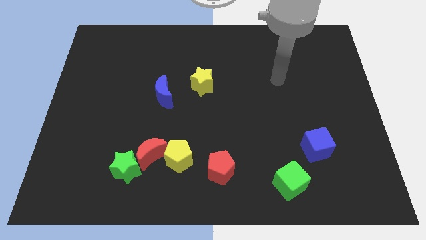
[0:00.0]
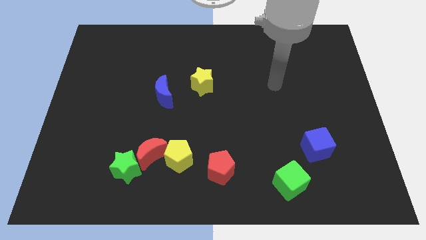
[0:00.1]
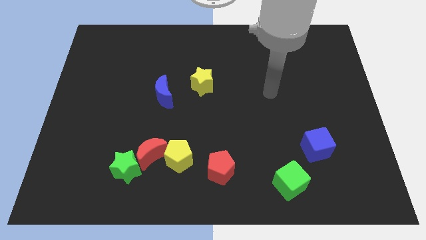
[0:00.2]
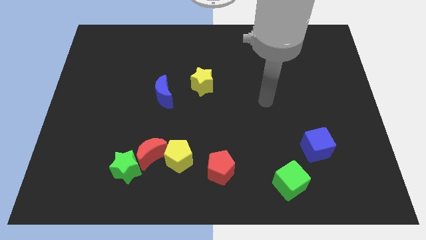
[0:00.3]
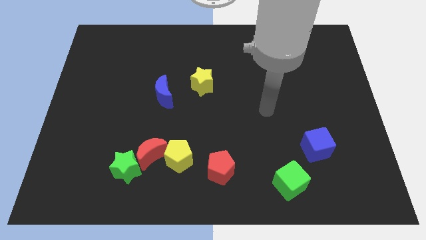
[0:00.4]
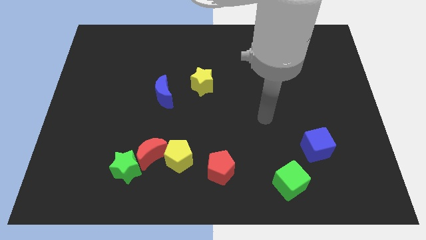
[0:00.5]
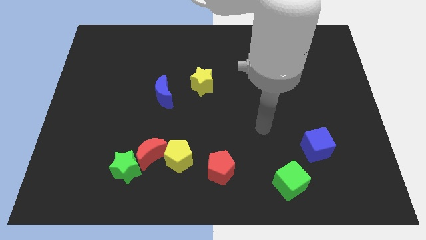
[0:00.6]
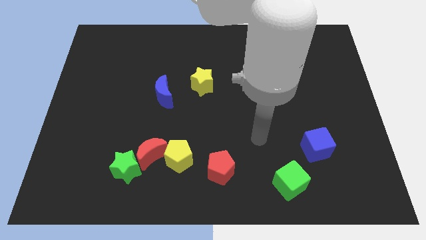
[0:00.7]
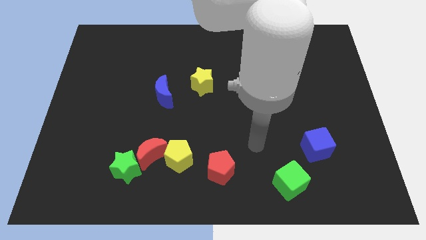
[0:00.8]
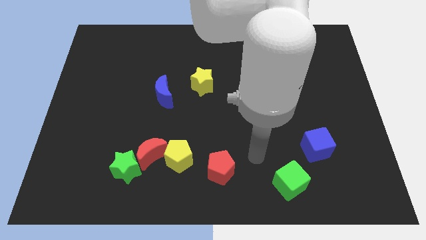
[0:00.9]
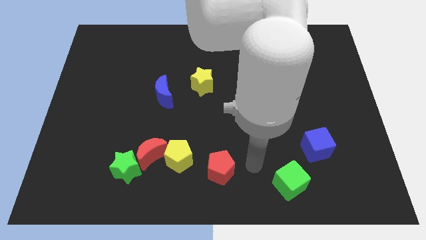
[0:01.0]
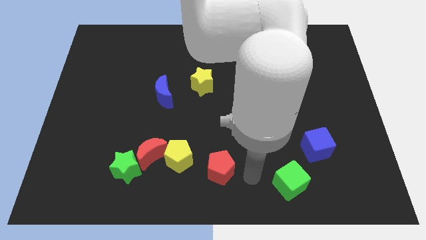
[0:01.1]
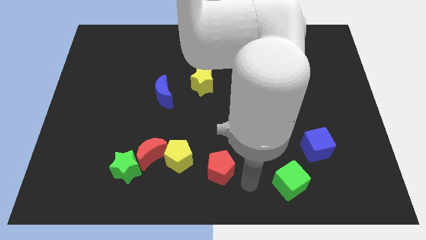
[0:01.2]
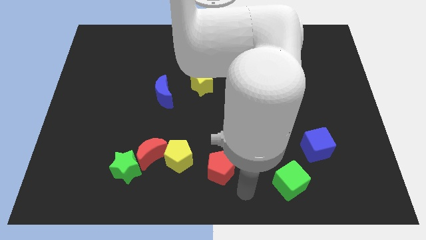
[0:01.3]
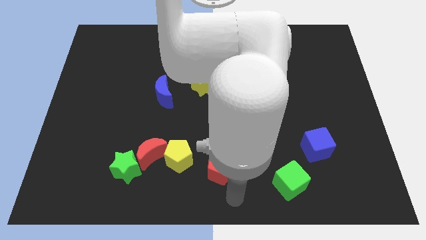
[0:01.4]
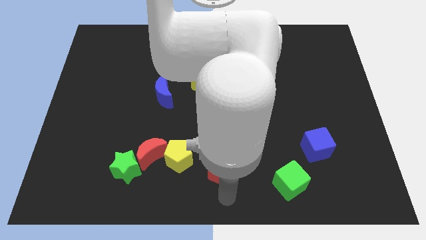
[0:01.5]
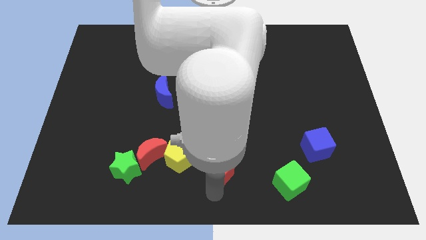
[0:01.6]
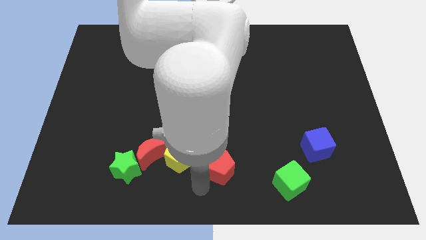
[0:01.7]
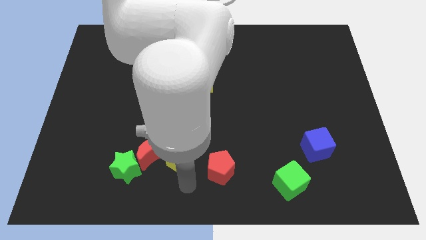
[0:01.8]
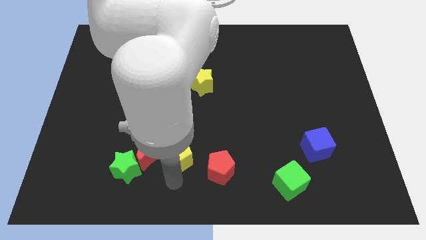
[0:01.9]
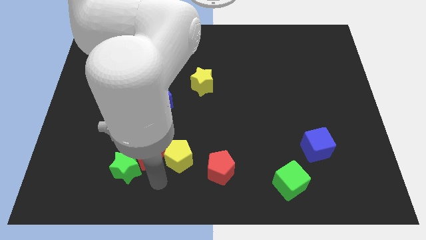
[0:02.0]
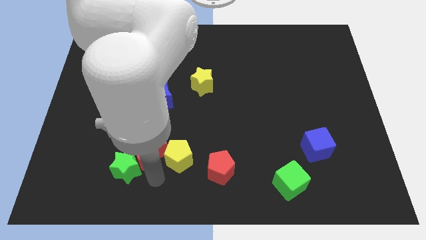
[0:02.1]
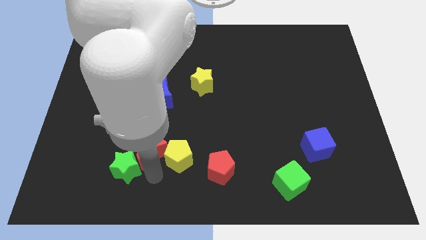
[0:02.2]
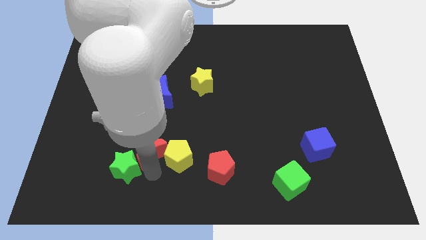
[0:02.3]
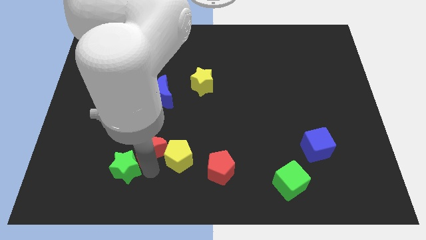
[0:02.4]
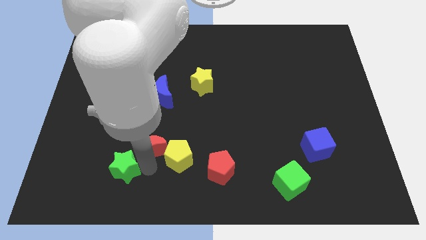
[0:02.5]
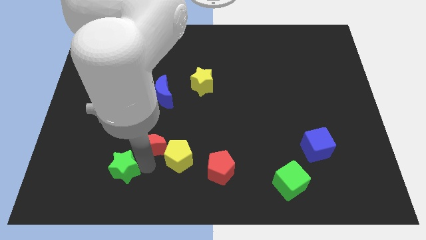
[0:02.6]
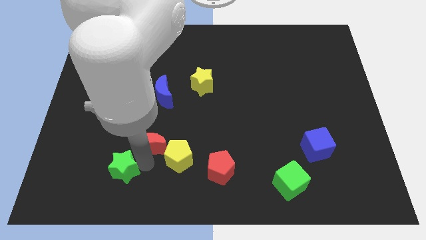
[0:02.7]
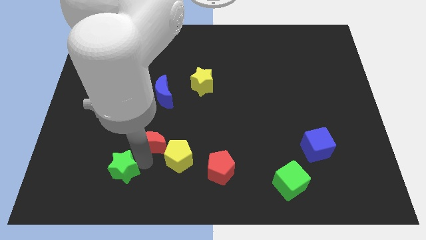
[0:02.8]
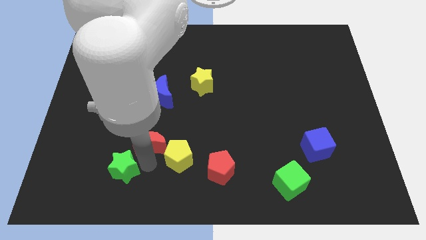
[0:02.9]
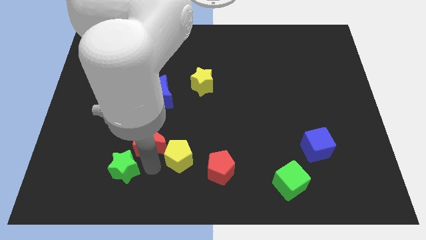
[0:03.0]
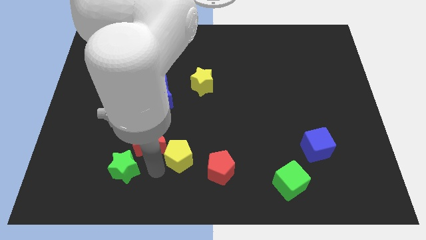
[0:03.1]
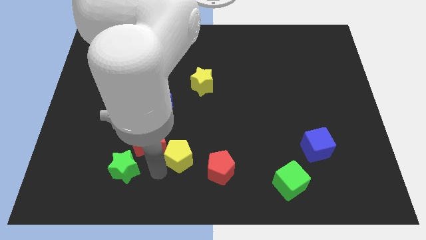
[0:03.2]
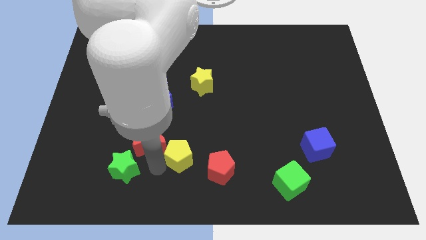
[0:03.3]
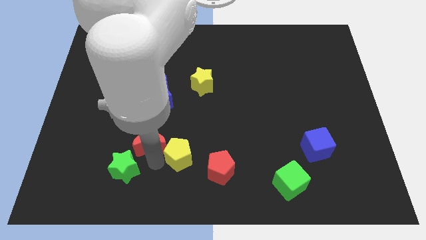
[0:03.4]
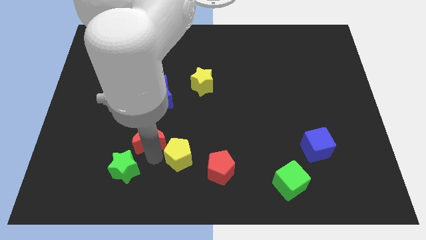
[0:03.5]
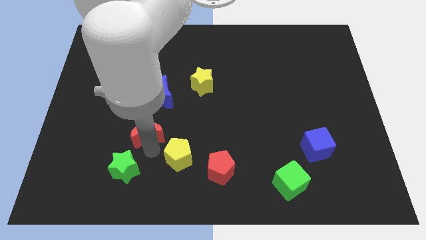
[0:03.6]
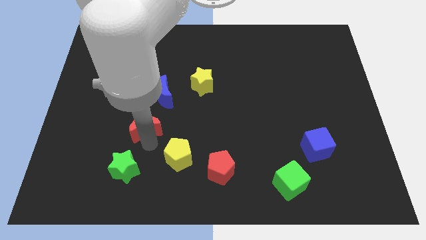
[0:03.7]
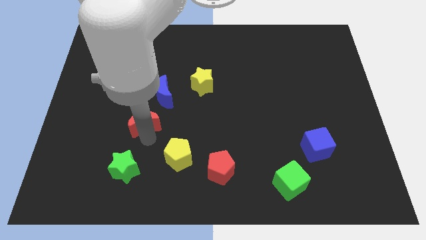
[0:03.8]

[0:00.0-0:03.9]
separate the red moon from the yellow pentagon and green star

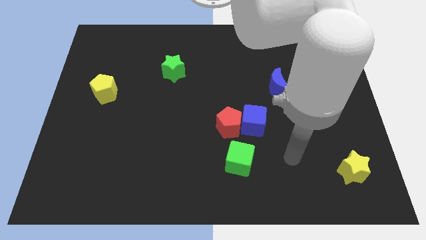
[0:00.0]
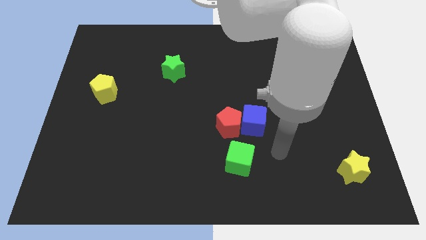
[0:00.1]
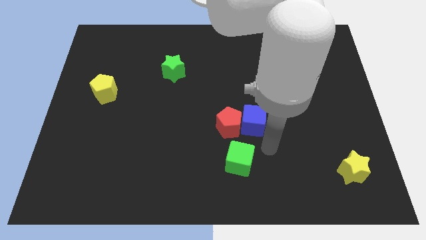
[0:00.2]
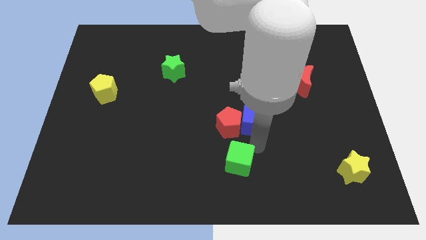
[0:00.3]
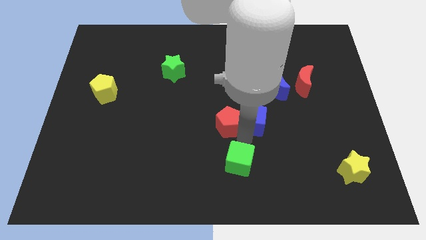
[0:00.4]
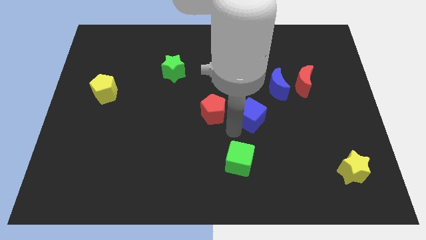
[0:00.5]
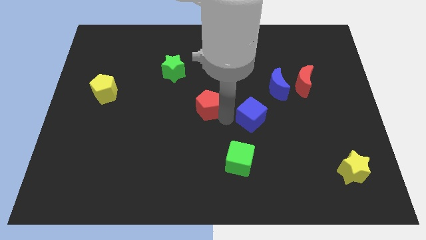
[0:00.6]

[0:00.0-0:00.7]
pull the blue cube apart from the red pentagon

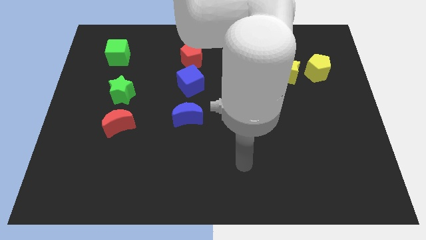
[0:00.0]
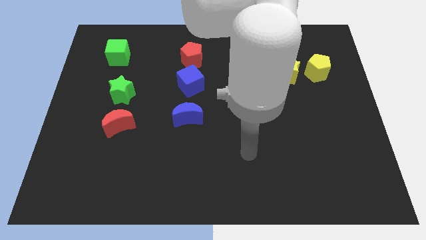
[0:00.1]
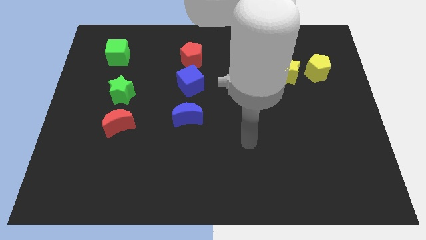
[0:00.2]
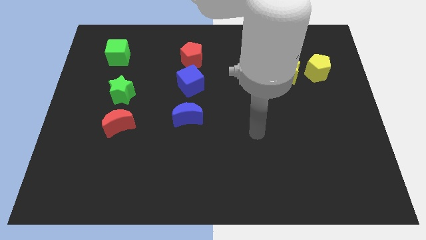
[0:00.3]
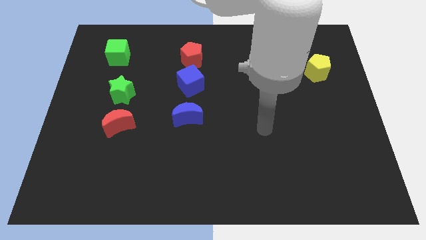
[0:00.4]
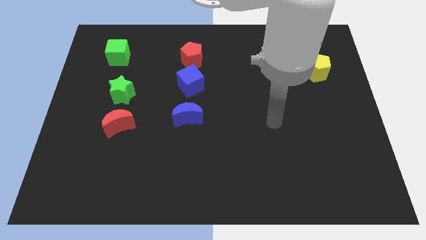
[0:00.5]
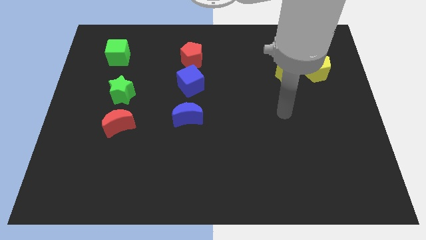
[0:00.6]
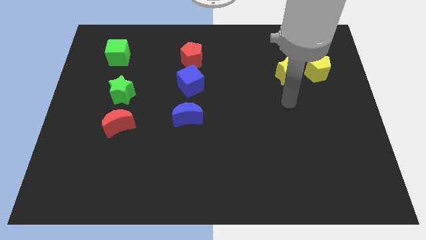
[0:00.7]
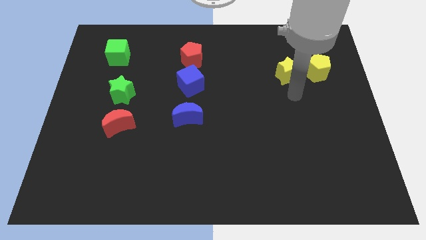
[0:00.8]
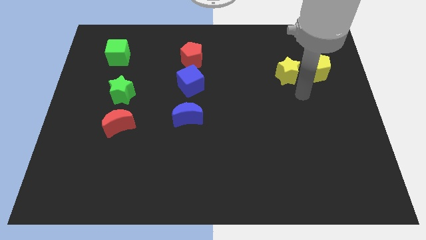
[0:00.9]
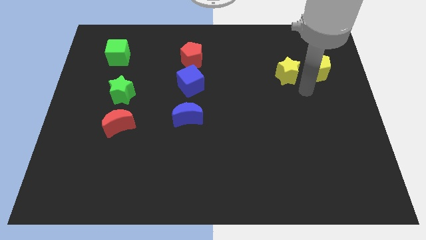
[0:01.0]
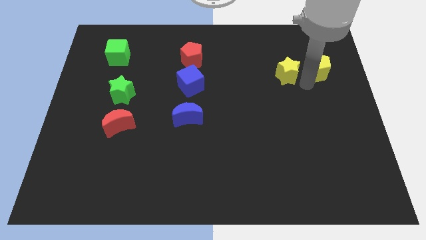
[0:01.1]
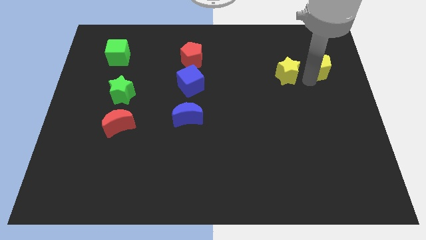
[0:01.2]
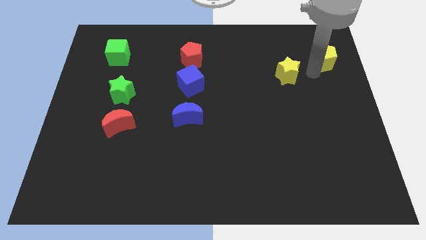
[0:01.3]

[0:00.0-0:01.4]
pull the yellow star apart from the yellow pentagon

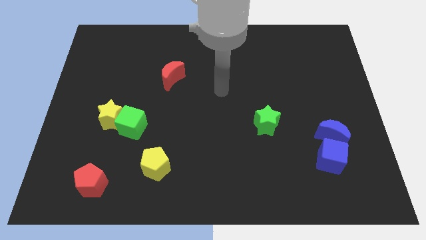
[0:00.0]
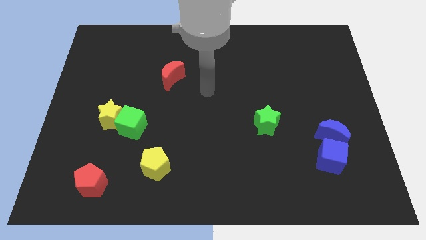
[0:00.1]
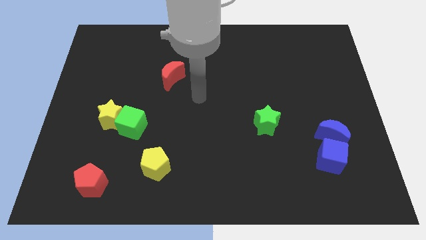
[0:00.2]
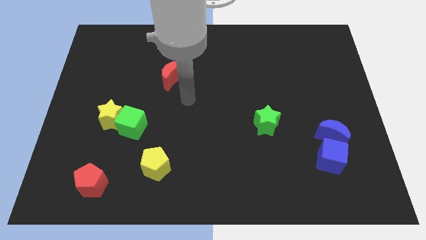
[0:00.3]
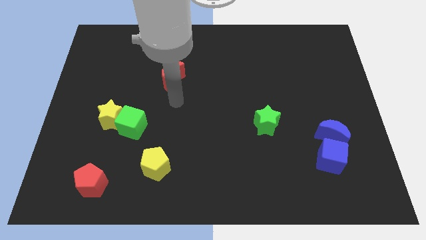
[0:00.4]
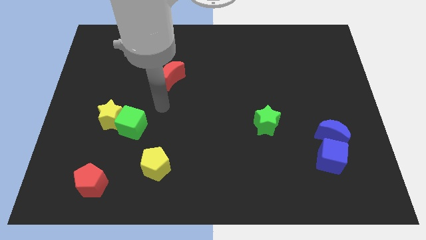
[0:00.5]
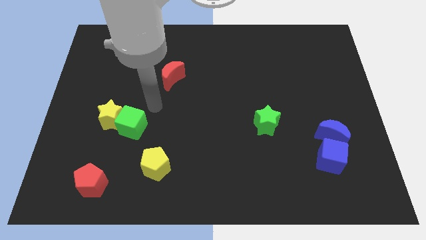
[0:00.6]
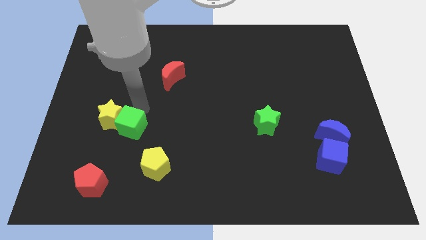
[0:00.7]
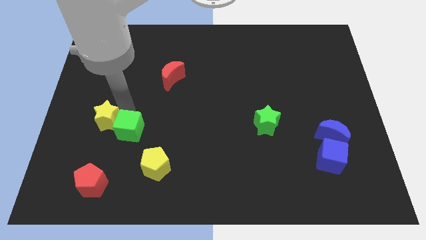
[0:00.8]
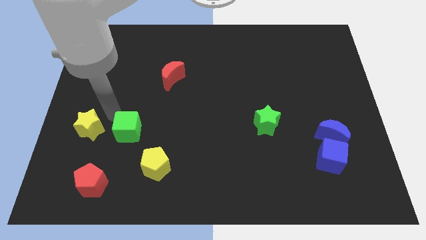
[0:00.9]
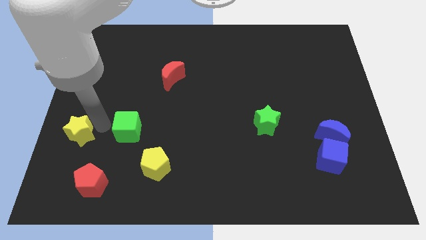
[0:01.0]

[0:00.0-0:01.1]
move the green cube away from the yellow star

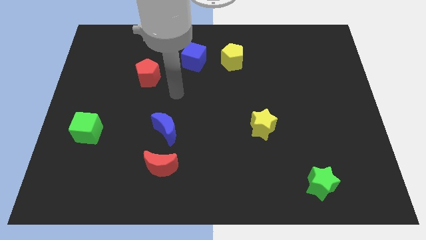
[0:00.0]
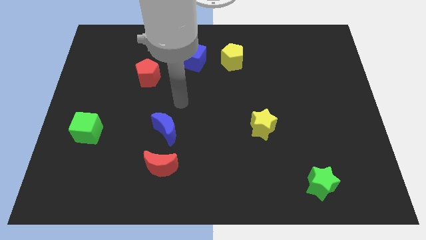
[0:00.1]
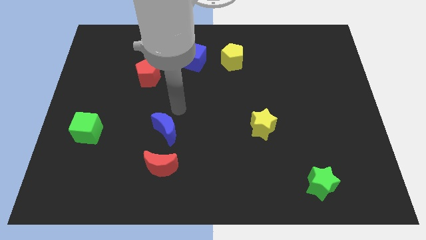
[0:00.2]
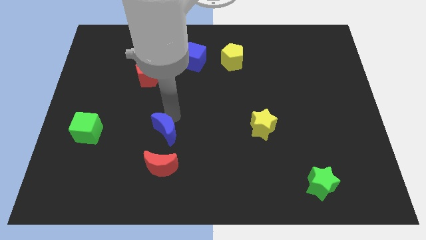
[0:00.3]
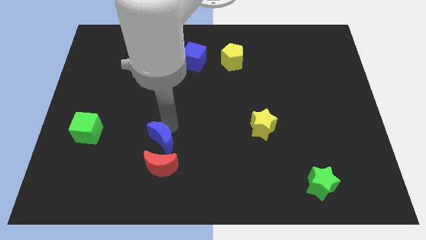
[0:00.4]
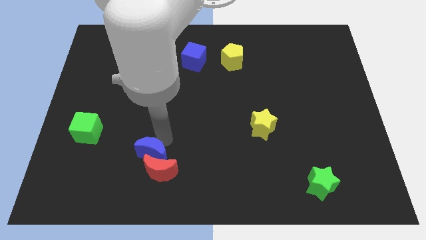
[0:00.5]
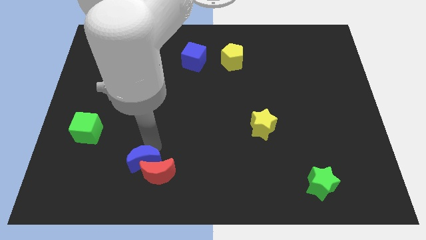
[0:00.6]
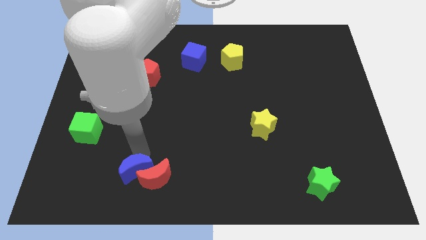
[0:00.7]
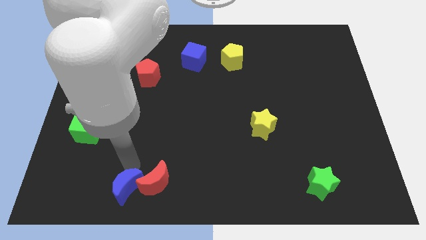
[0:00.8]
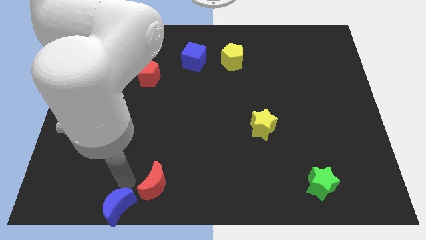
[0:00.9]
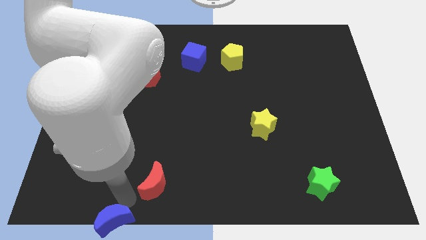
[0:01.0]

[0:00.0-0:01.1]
move the red moon away from the blue moon

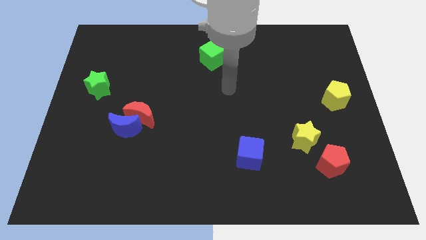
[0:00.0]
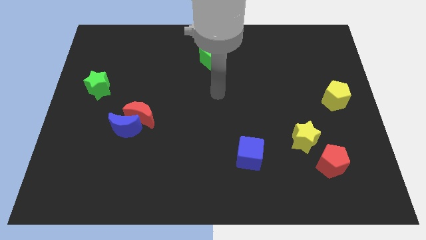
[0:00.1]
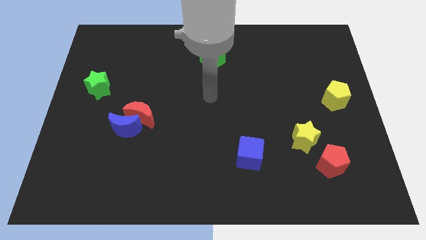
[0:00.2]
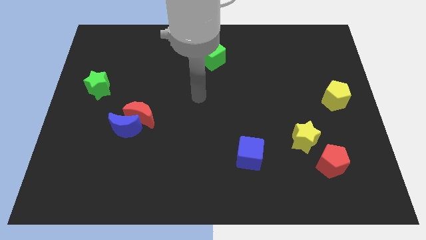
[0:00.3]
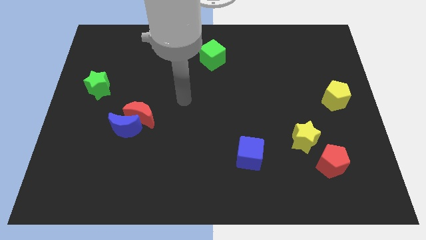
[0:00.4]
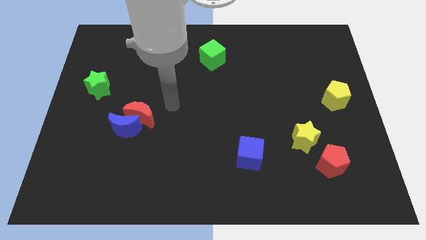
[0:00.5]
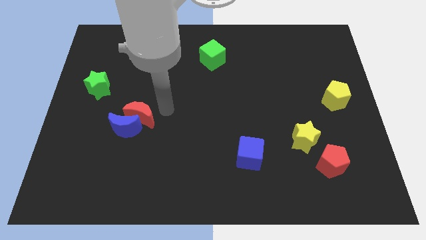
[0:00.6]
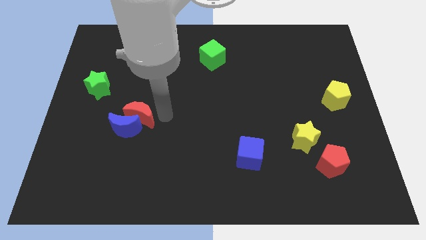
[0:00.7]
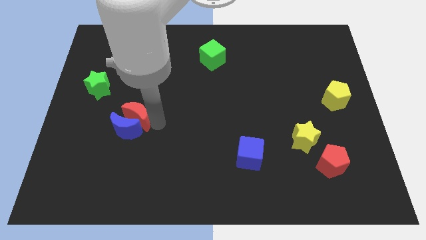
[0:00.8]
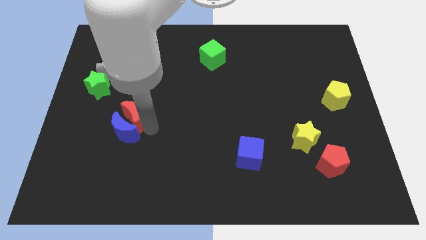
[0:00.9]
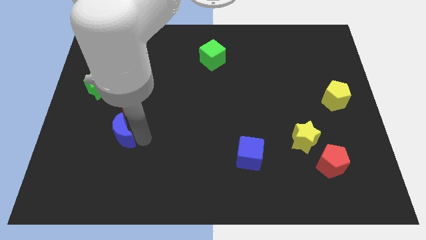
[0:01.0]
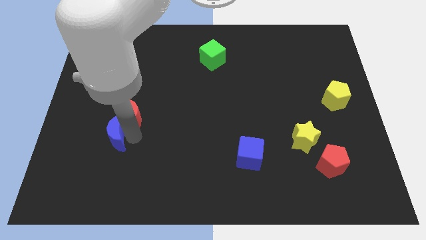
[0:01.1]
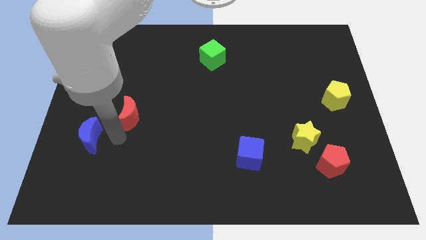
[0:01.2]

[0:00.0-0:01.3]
separate the red moon from the blue moon
